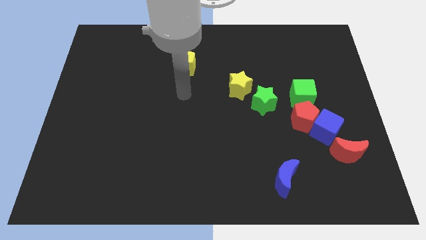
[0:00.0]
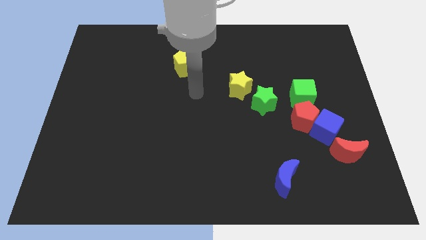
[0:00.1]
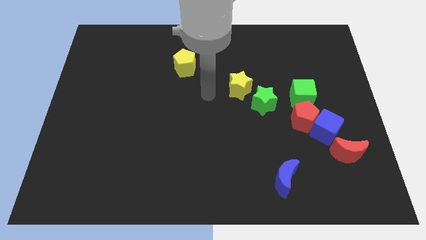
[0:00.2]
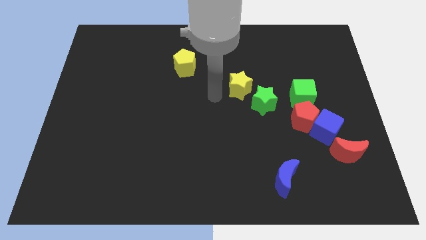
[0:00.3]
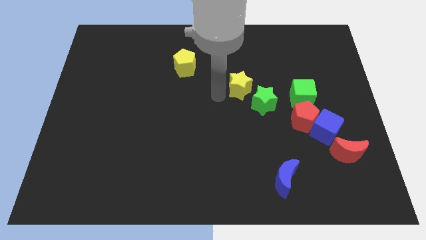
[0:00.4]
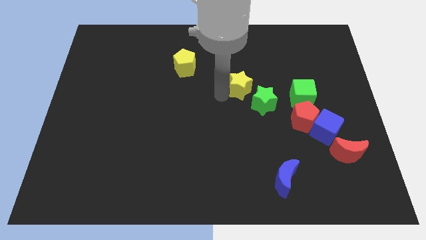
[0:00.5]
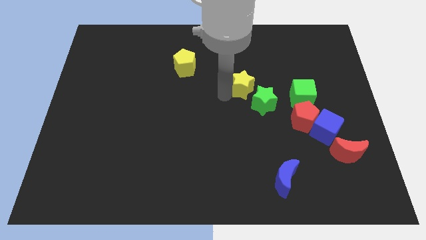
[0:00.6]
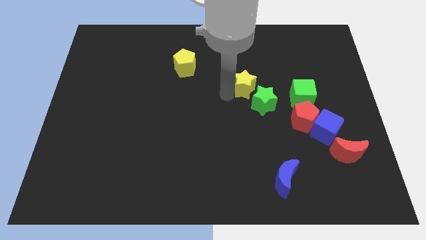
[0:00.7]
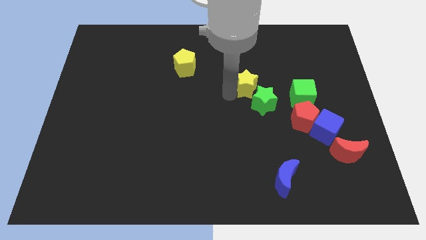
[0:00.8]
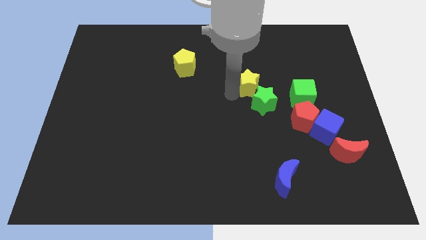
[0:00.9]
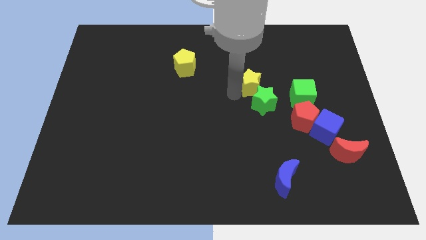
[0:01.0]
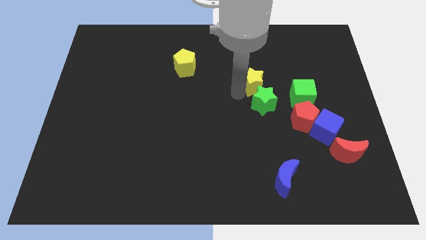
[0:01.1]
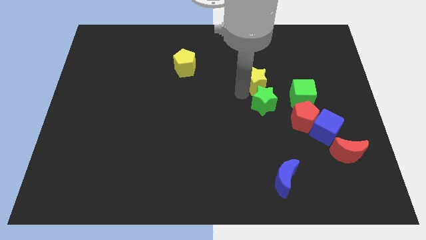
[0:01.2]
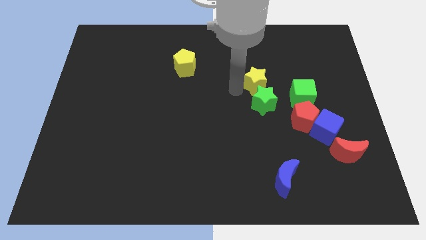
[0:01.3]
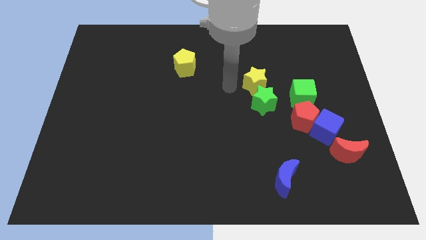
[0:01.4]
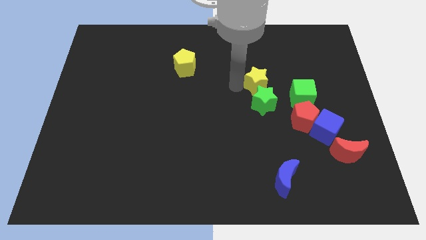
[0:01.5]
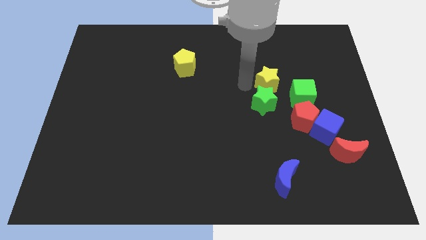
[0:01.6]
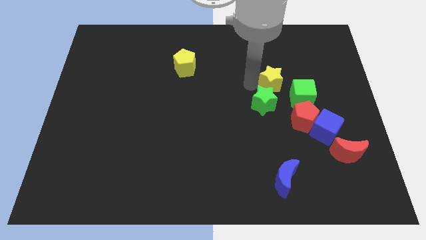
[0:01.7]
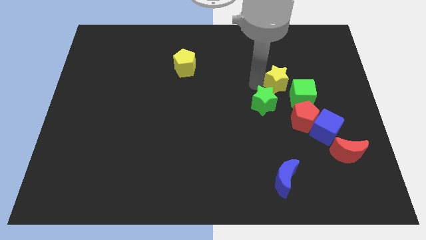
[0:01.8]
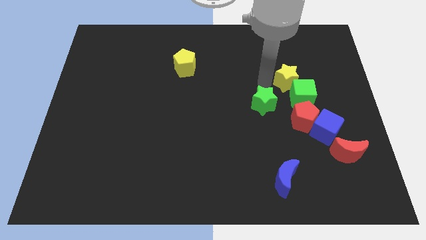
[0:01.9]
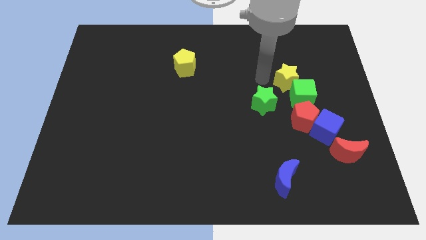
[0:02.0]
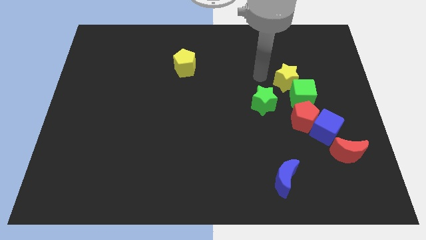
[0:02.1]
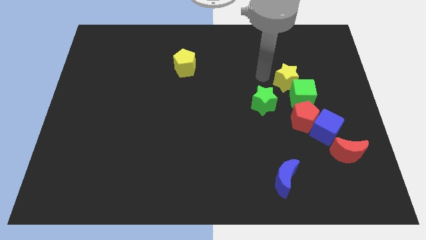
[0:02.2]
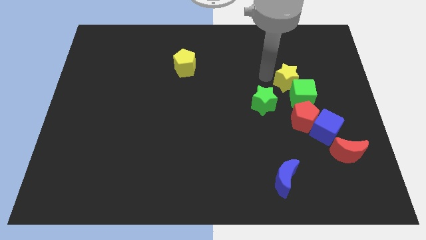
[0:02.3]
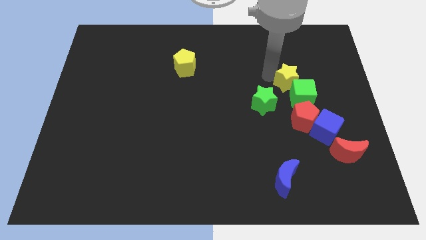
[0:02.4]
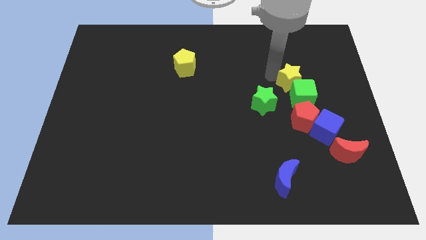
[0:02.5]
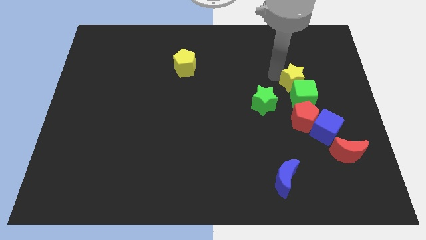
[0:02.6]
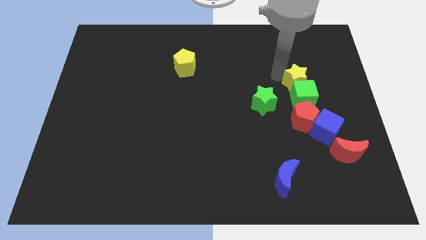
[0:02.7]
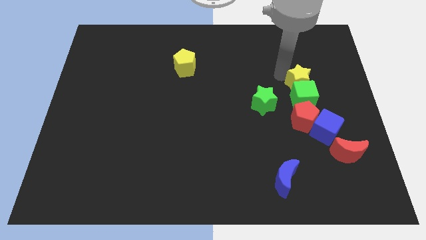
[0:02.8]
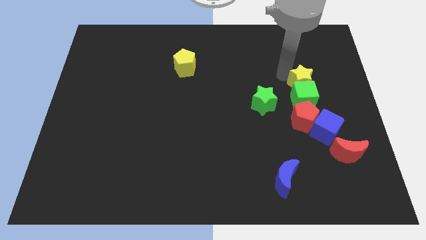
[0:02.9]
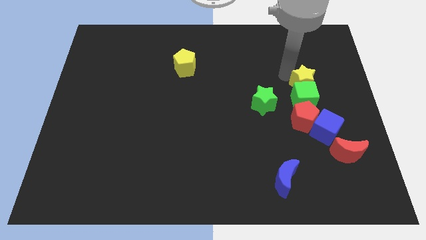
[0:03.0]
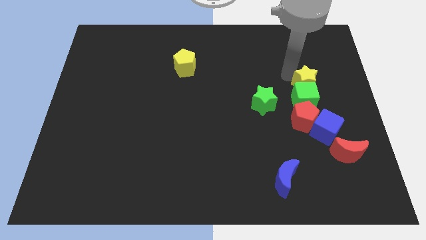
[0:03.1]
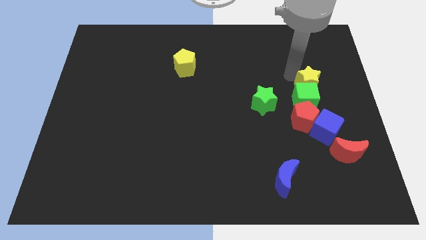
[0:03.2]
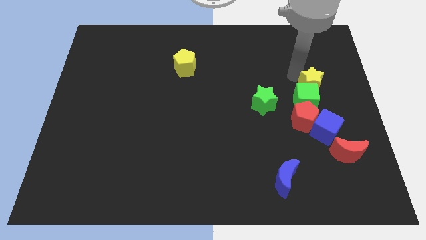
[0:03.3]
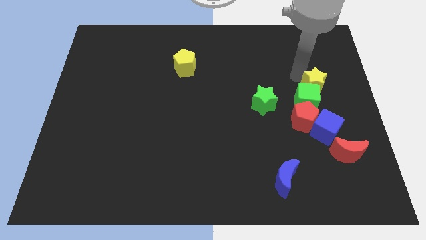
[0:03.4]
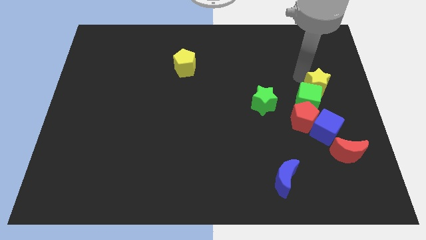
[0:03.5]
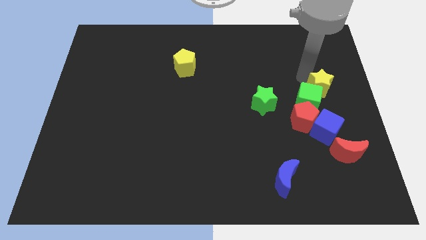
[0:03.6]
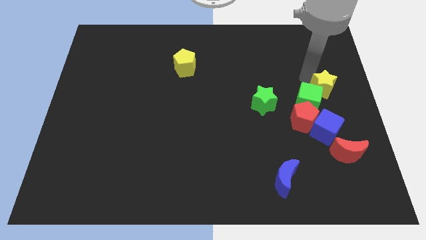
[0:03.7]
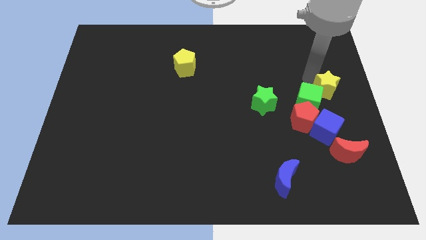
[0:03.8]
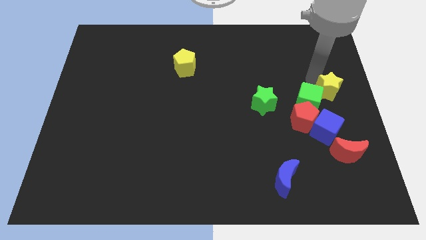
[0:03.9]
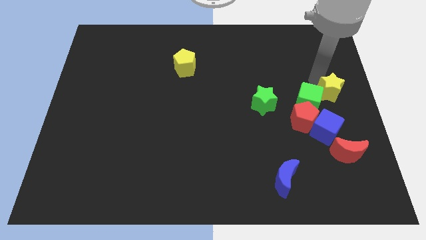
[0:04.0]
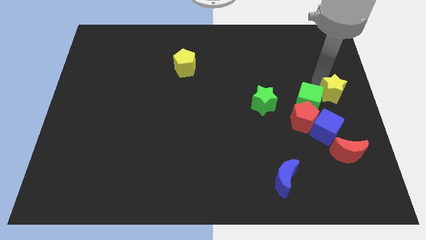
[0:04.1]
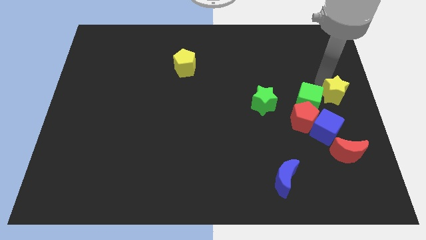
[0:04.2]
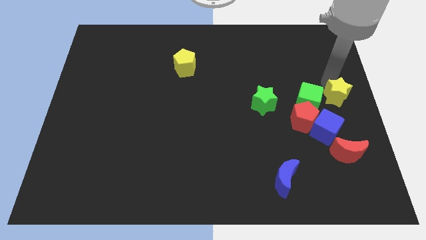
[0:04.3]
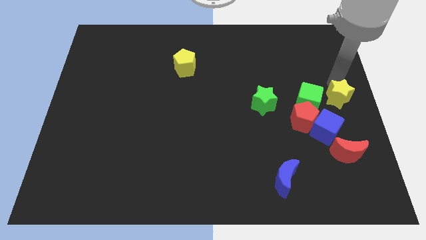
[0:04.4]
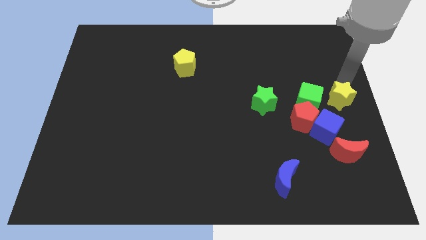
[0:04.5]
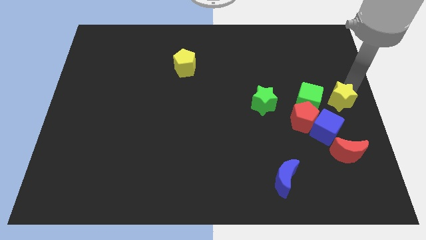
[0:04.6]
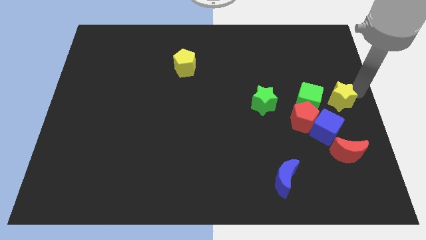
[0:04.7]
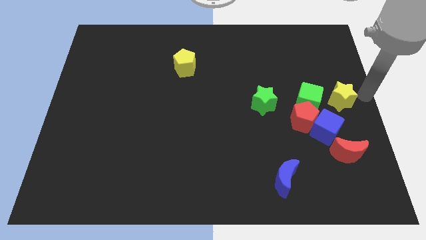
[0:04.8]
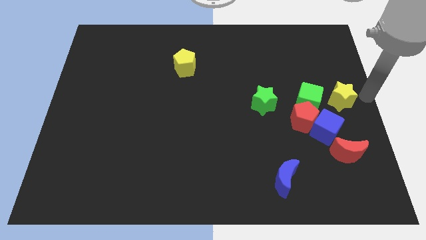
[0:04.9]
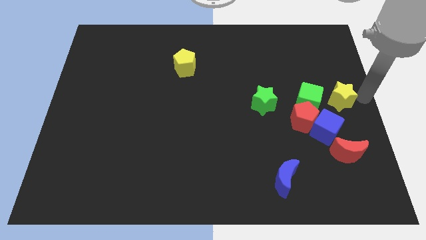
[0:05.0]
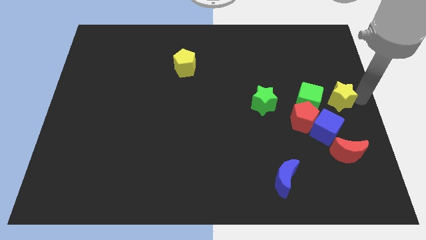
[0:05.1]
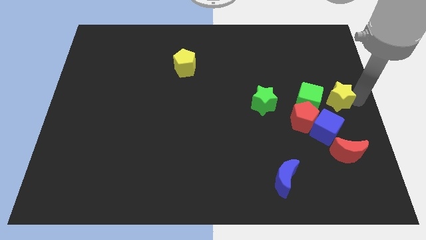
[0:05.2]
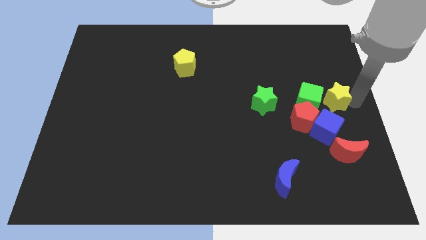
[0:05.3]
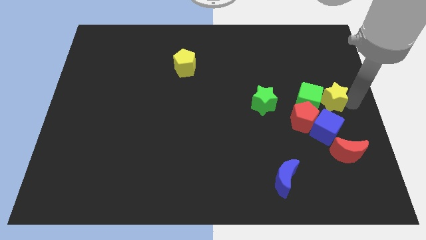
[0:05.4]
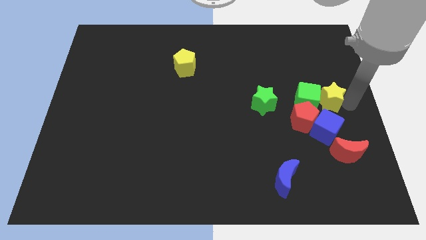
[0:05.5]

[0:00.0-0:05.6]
put the yellow star right of the green star
